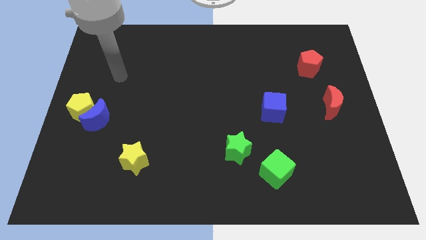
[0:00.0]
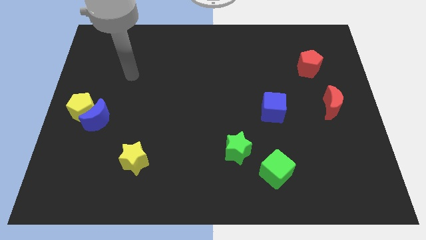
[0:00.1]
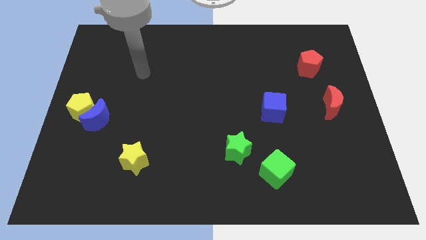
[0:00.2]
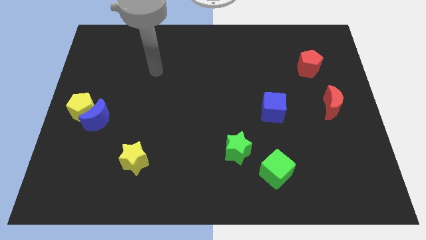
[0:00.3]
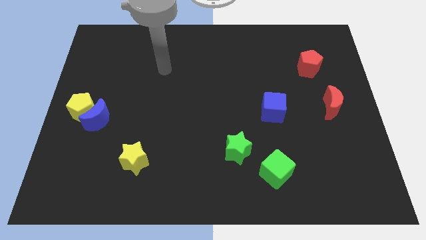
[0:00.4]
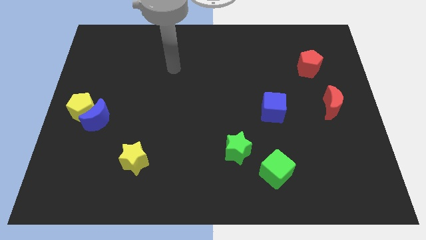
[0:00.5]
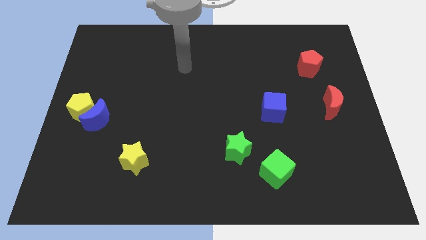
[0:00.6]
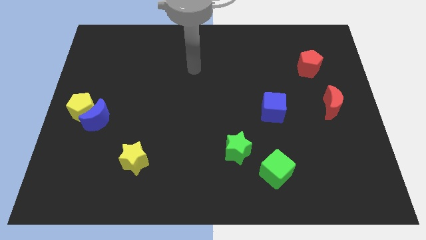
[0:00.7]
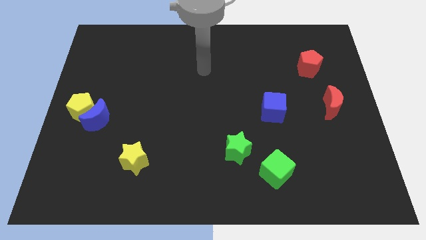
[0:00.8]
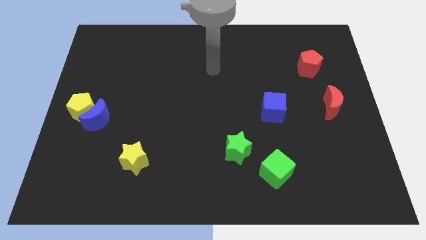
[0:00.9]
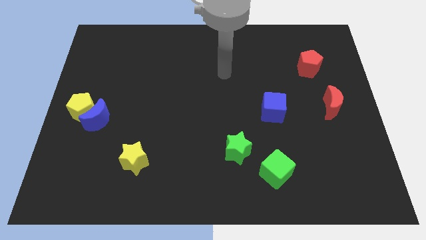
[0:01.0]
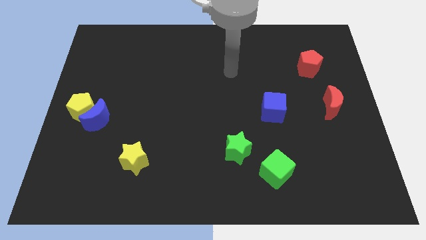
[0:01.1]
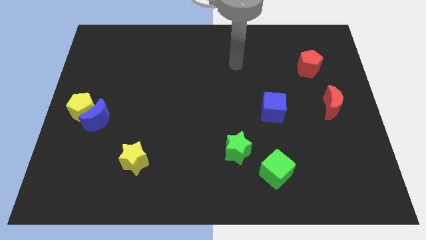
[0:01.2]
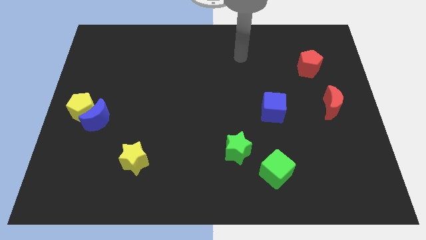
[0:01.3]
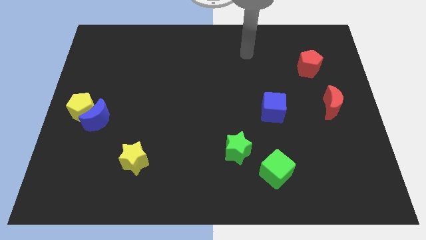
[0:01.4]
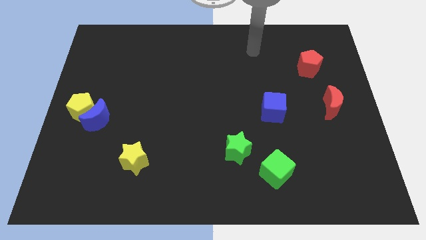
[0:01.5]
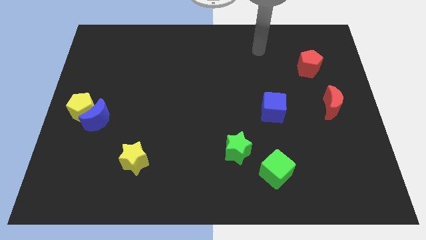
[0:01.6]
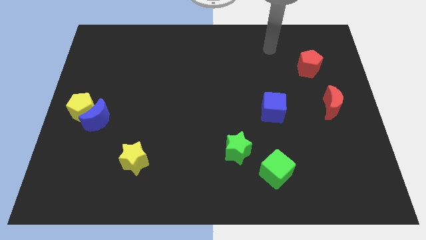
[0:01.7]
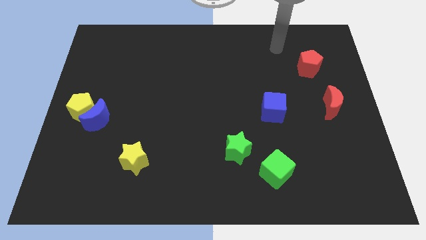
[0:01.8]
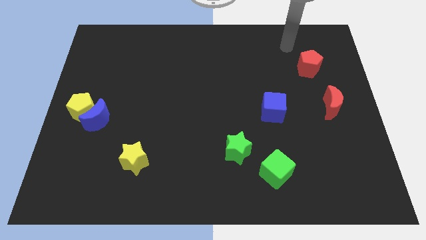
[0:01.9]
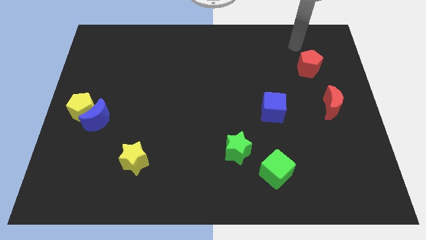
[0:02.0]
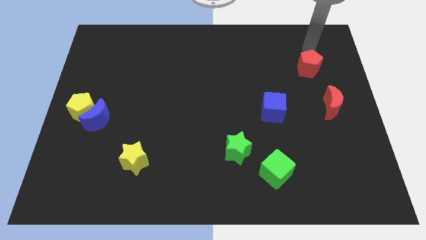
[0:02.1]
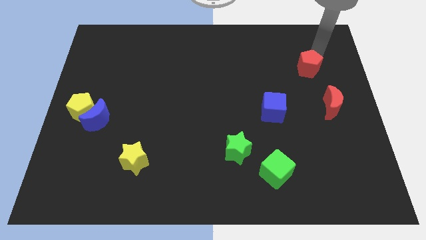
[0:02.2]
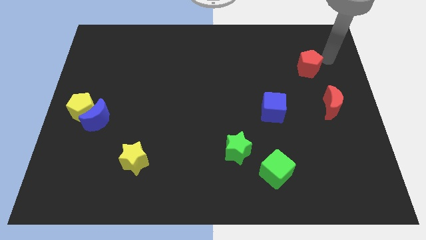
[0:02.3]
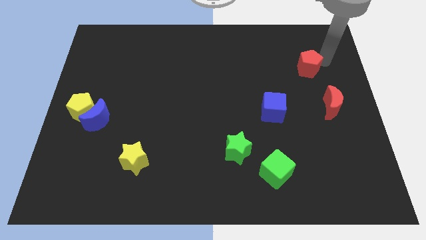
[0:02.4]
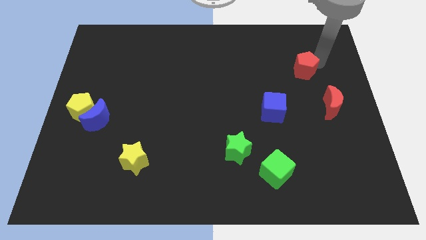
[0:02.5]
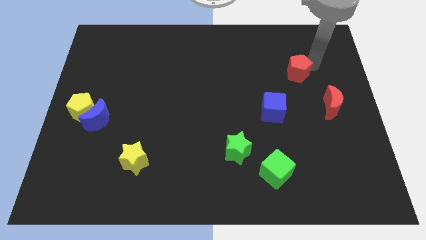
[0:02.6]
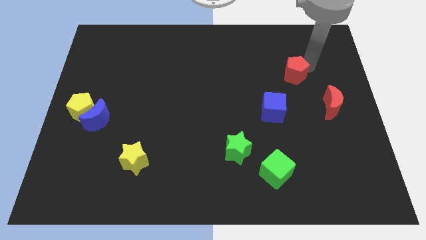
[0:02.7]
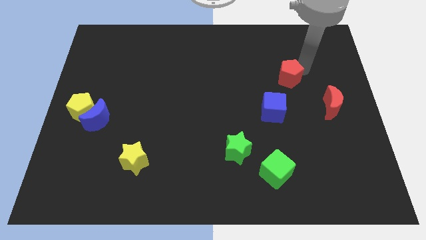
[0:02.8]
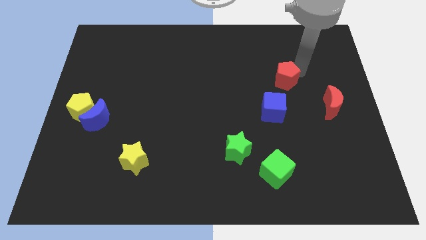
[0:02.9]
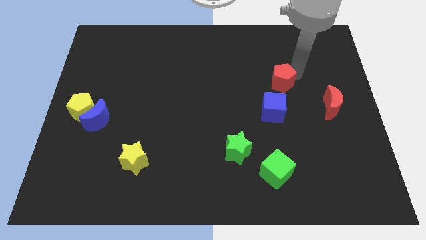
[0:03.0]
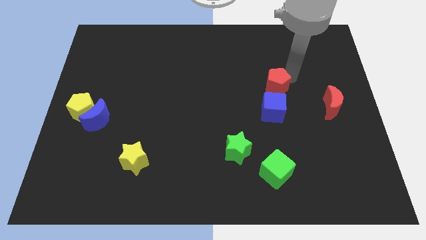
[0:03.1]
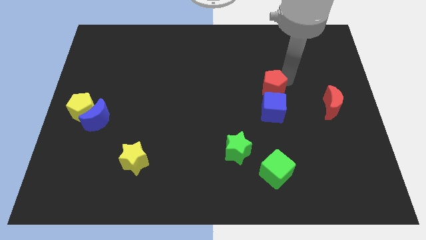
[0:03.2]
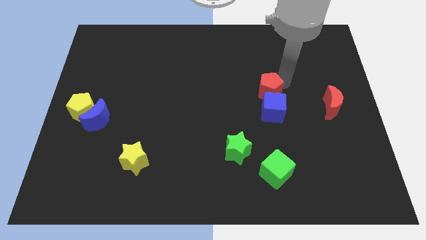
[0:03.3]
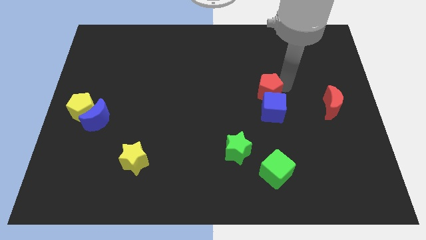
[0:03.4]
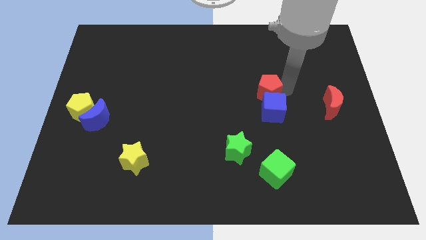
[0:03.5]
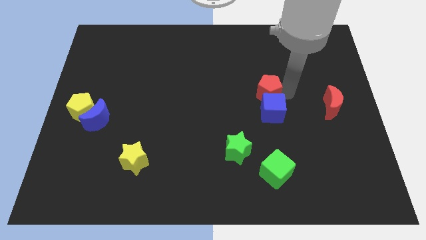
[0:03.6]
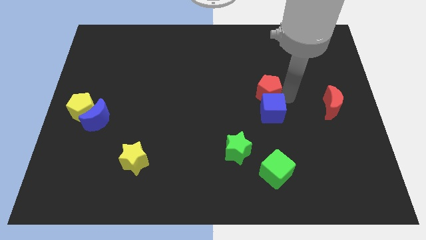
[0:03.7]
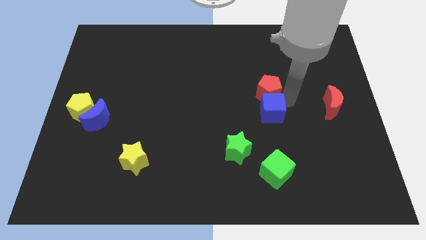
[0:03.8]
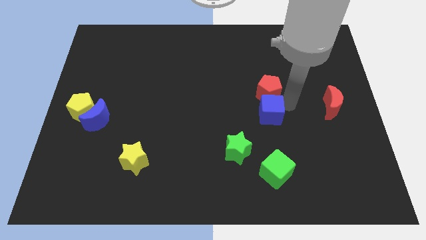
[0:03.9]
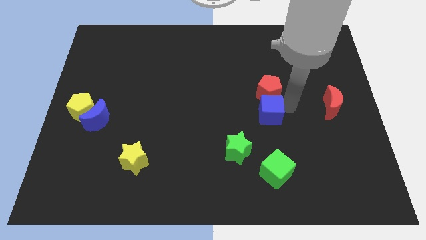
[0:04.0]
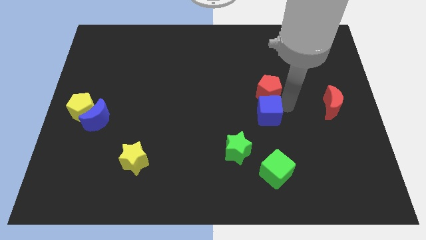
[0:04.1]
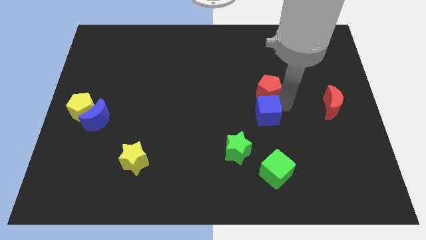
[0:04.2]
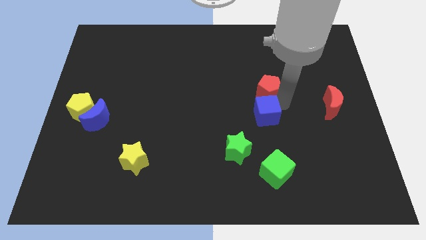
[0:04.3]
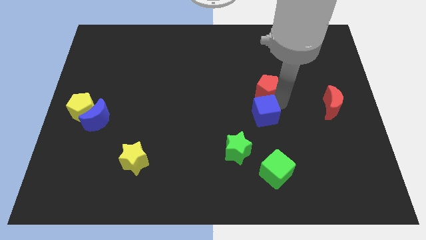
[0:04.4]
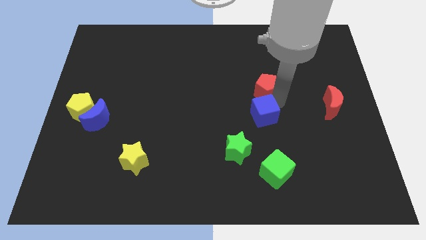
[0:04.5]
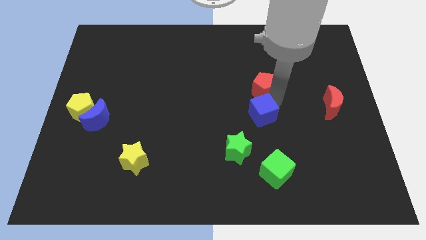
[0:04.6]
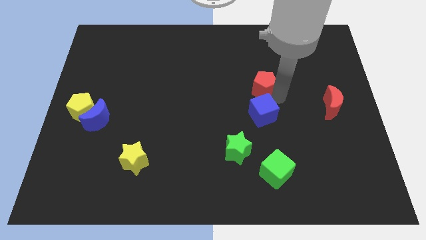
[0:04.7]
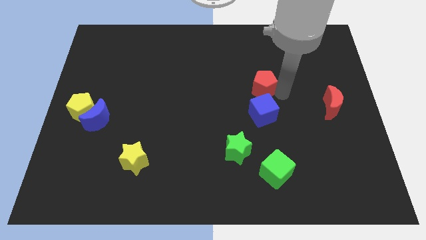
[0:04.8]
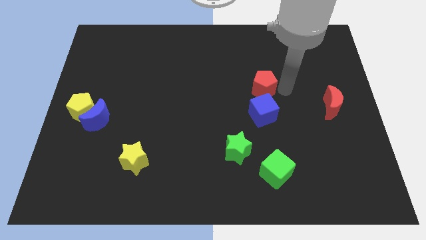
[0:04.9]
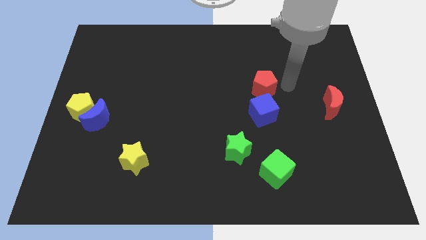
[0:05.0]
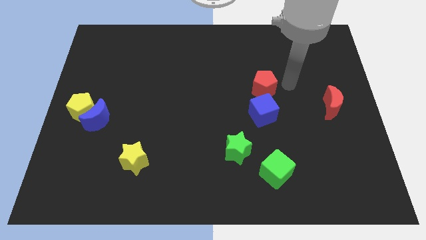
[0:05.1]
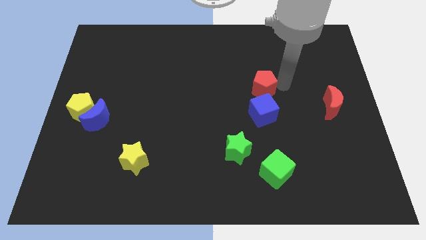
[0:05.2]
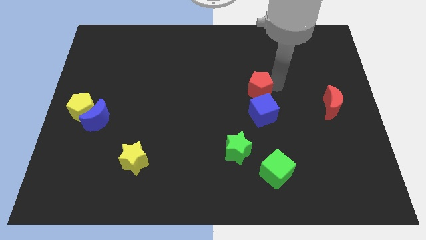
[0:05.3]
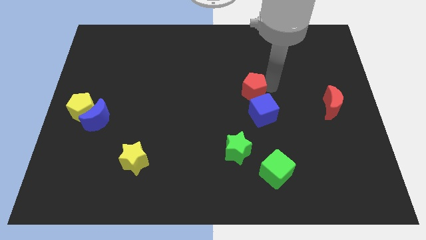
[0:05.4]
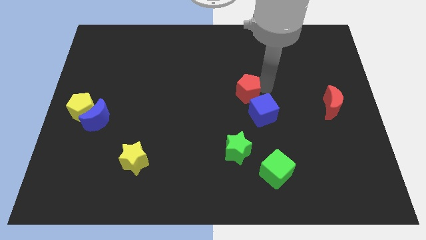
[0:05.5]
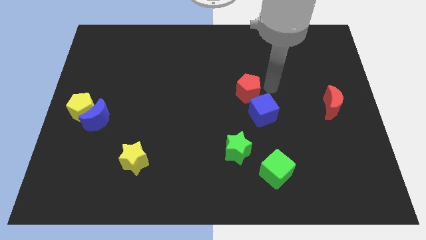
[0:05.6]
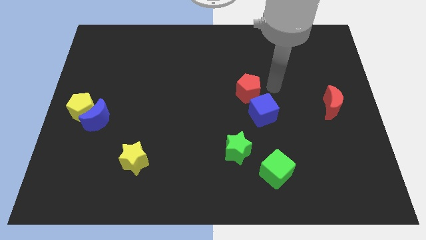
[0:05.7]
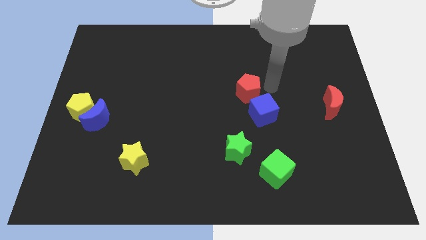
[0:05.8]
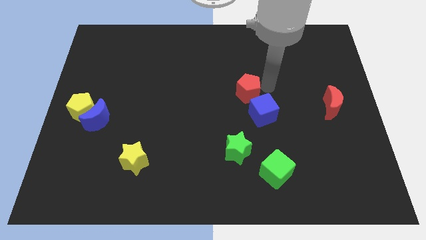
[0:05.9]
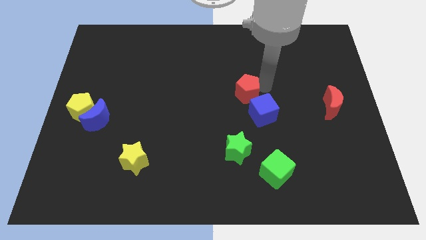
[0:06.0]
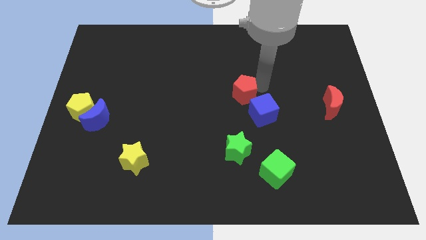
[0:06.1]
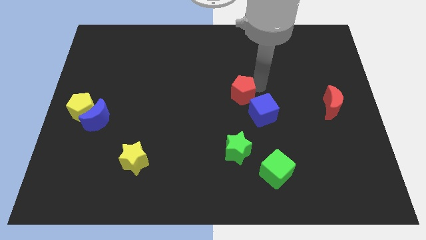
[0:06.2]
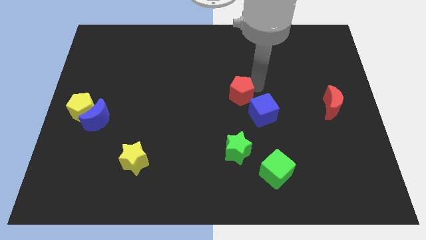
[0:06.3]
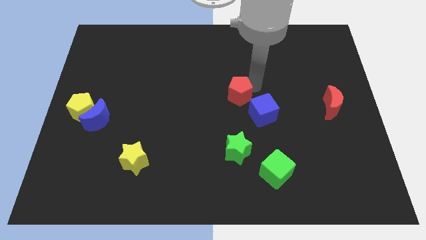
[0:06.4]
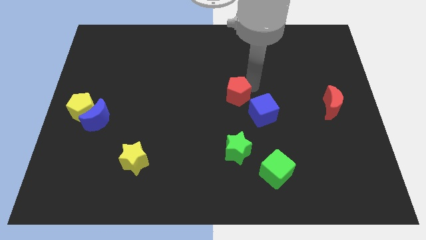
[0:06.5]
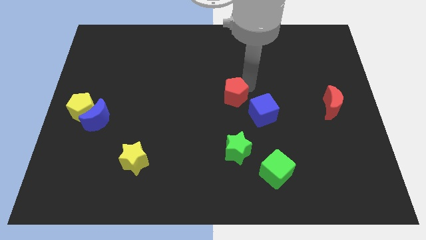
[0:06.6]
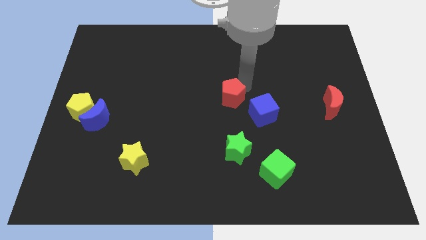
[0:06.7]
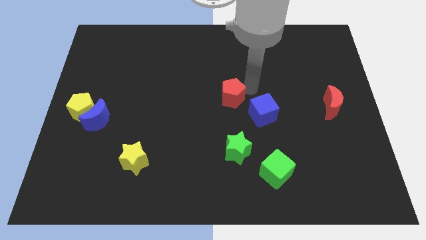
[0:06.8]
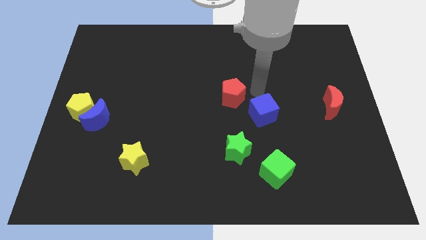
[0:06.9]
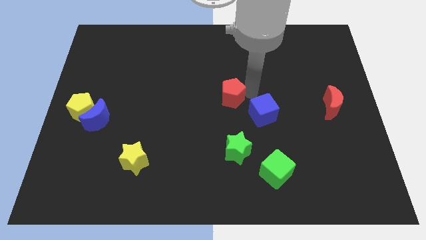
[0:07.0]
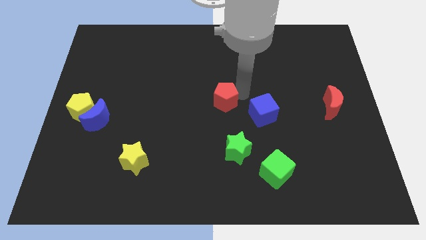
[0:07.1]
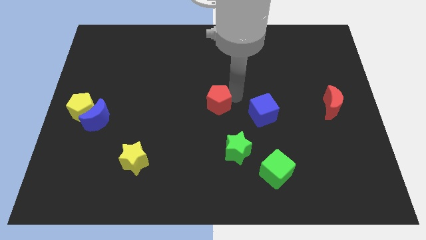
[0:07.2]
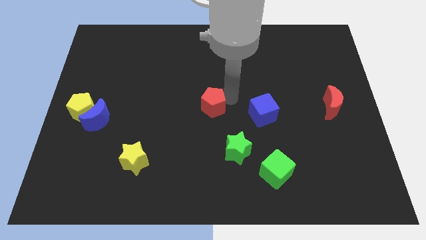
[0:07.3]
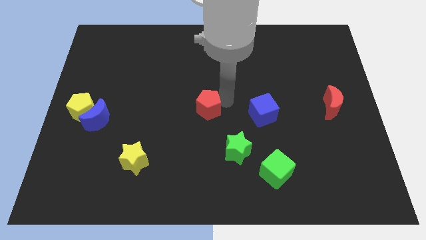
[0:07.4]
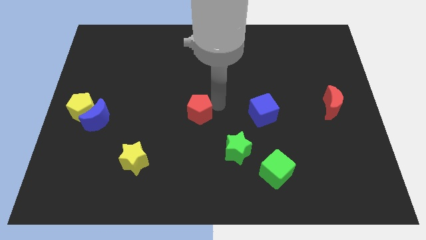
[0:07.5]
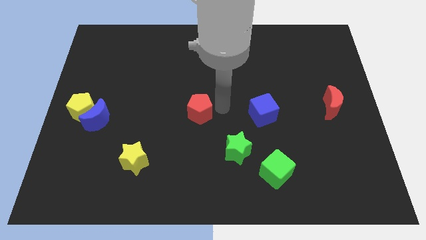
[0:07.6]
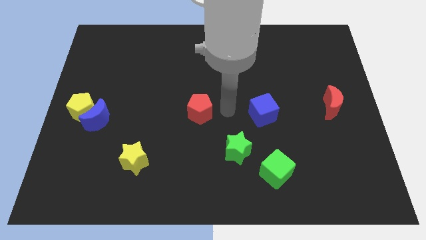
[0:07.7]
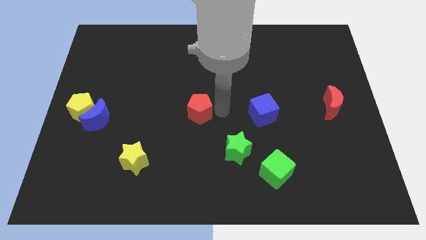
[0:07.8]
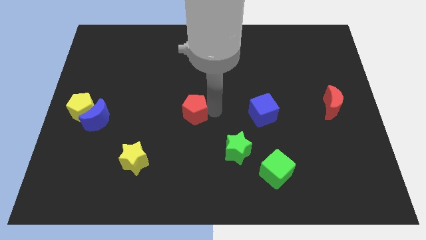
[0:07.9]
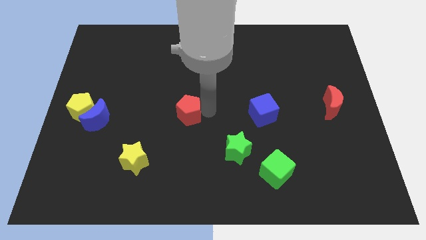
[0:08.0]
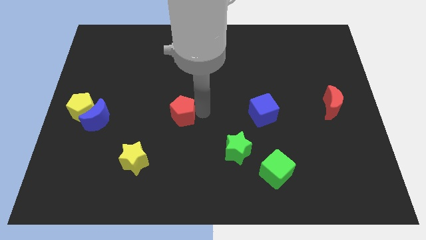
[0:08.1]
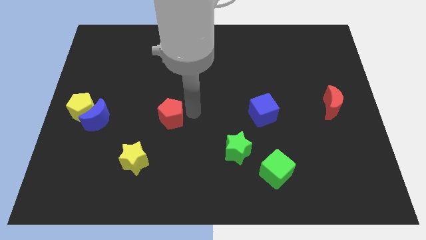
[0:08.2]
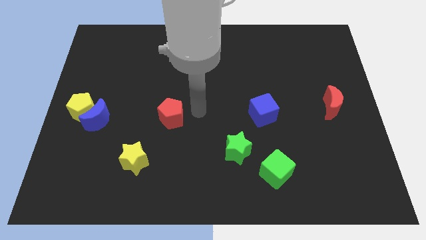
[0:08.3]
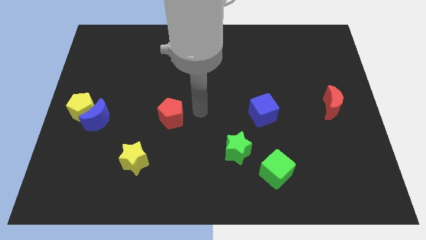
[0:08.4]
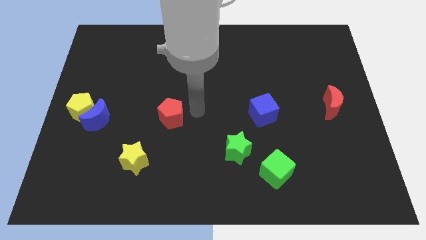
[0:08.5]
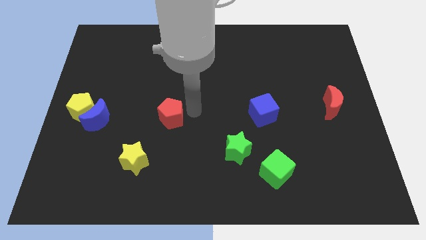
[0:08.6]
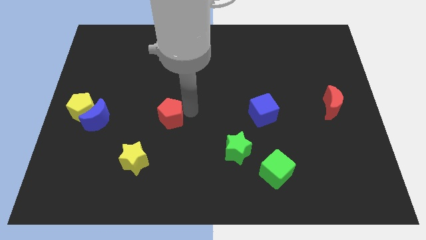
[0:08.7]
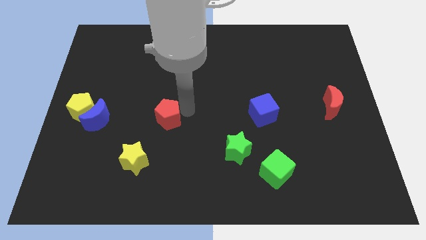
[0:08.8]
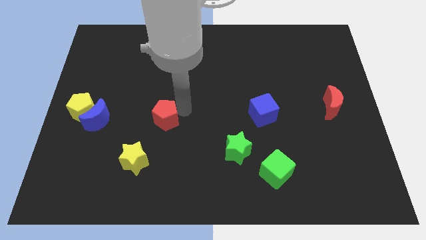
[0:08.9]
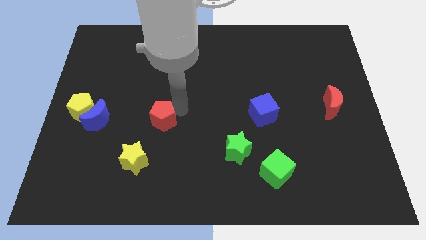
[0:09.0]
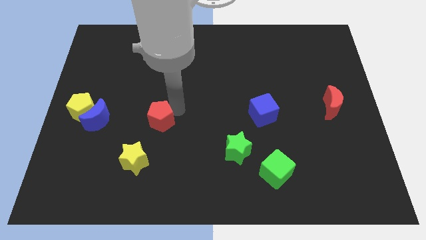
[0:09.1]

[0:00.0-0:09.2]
slide the red pentagon to the top of the yellow star
